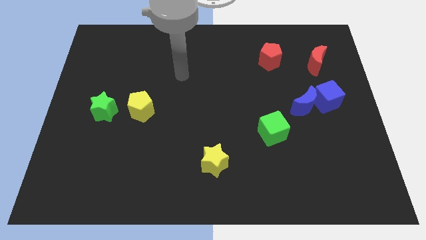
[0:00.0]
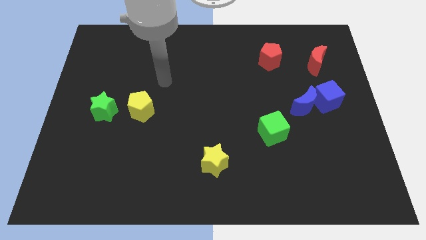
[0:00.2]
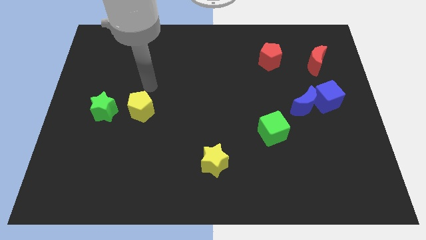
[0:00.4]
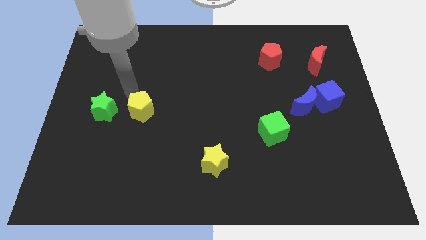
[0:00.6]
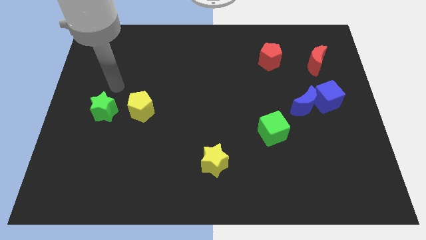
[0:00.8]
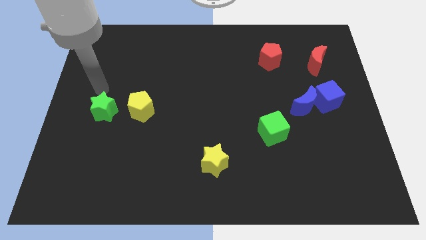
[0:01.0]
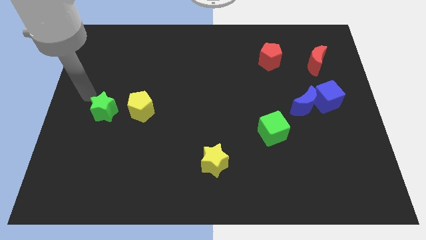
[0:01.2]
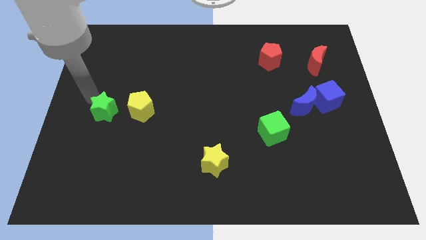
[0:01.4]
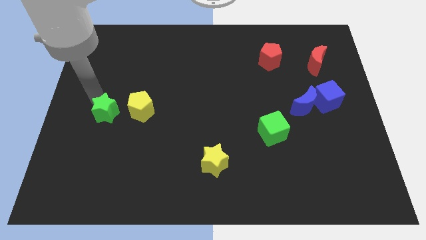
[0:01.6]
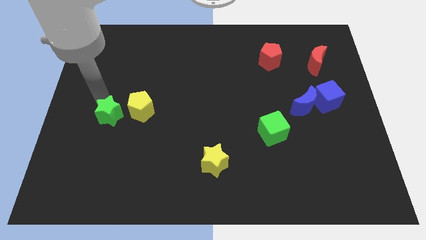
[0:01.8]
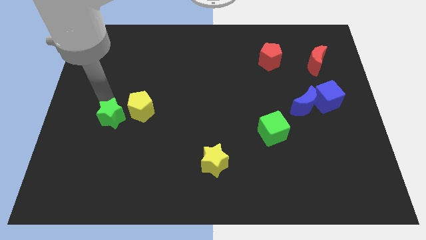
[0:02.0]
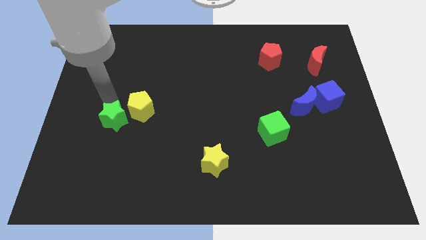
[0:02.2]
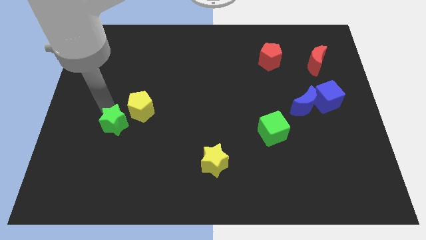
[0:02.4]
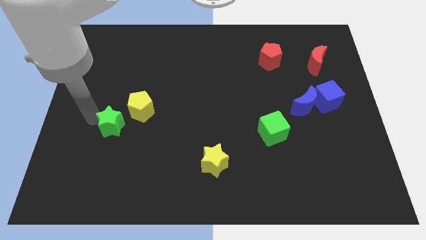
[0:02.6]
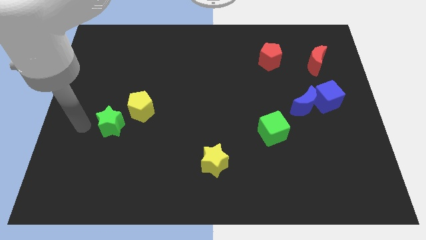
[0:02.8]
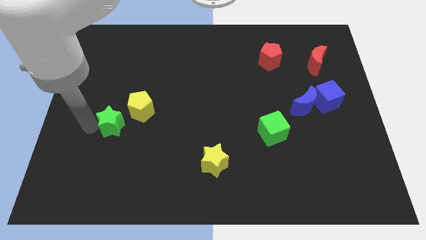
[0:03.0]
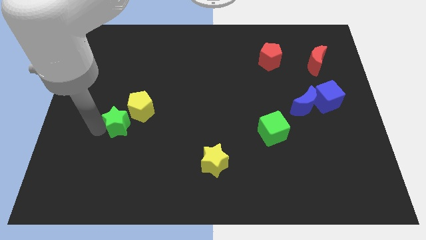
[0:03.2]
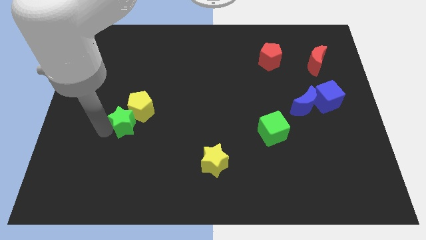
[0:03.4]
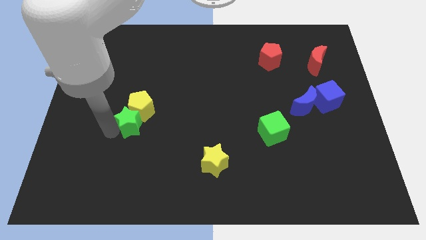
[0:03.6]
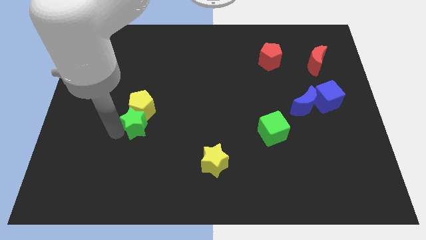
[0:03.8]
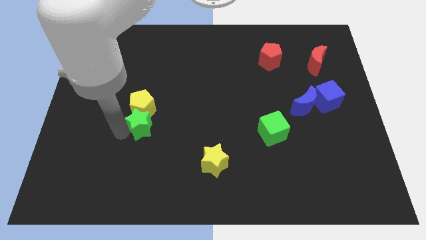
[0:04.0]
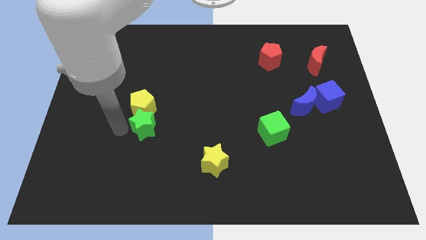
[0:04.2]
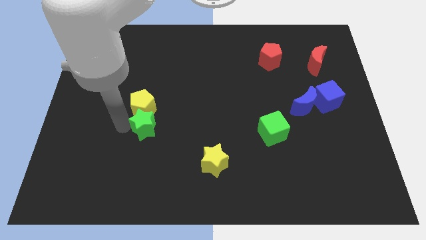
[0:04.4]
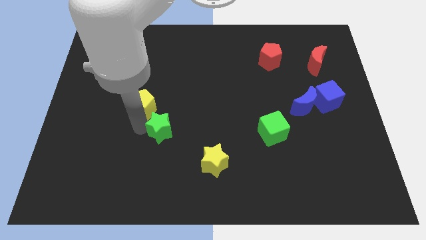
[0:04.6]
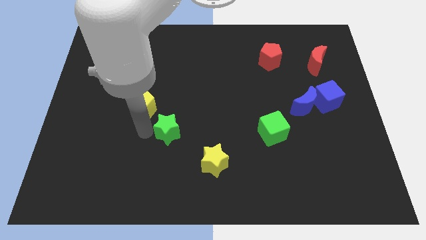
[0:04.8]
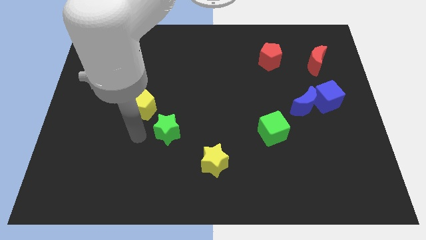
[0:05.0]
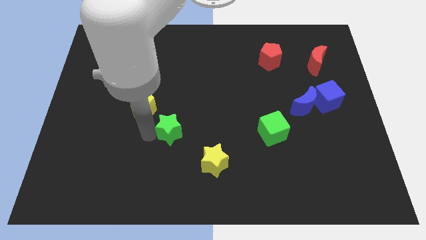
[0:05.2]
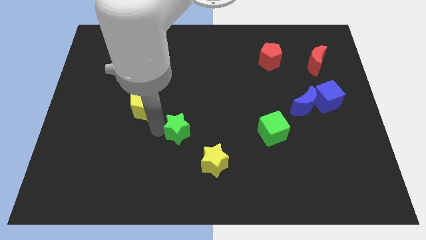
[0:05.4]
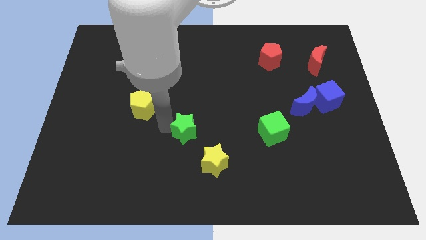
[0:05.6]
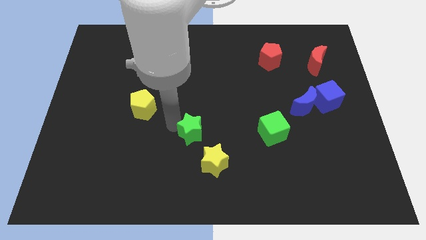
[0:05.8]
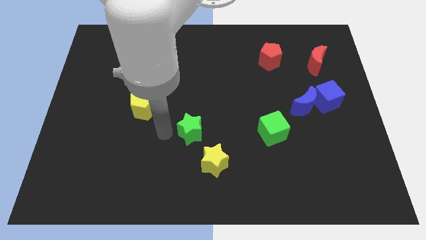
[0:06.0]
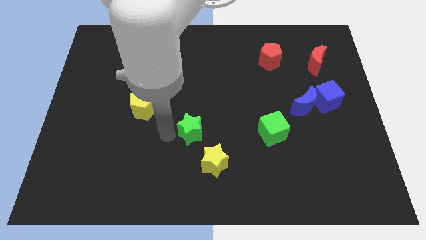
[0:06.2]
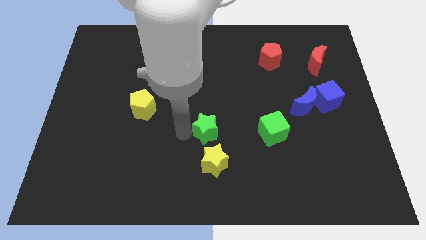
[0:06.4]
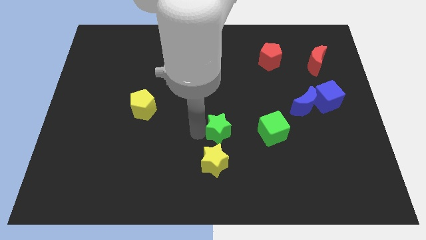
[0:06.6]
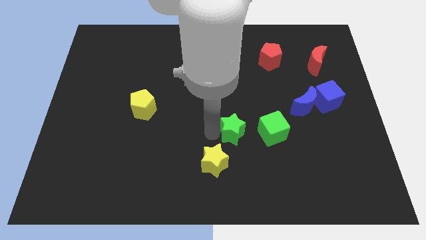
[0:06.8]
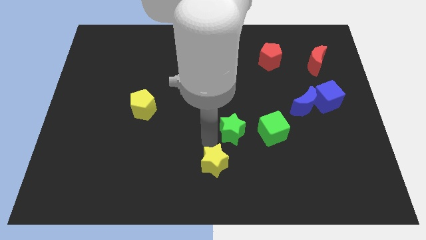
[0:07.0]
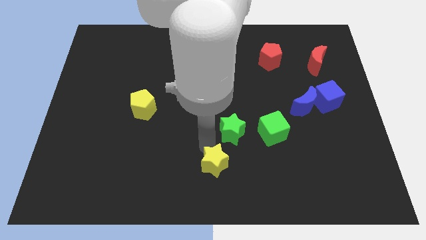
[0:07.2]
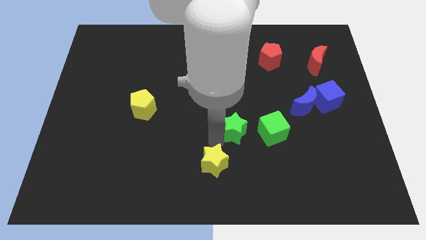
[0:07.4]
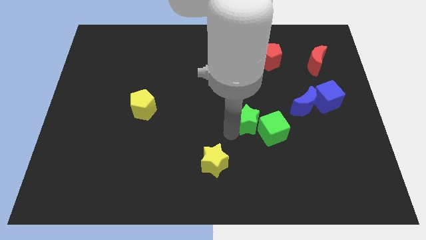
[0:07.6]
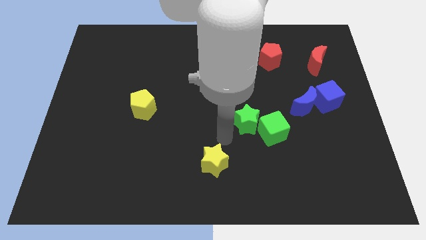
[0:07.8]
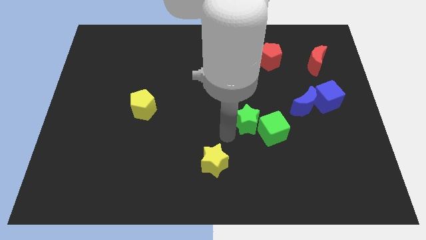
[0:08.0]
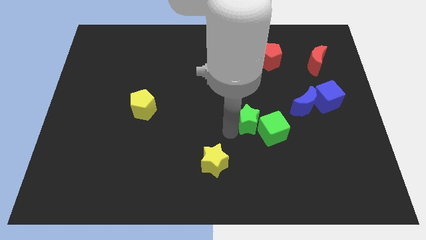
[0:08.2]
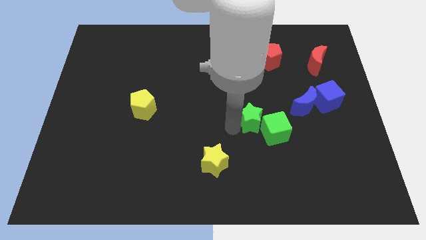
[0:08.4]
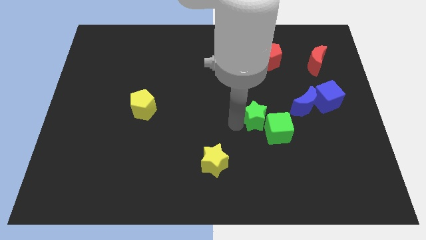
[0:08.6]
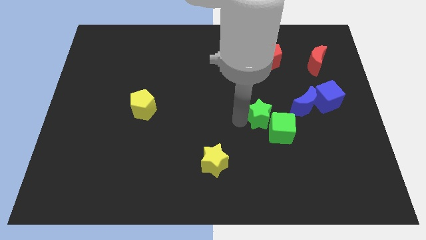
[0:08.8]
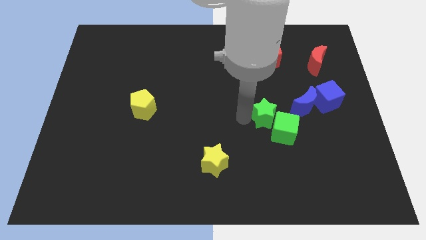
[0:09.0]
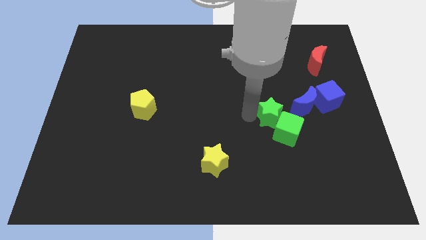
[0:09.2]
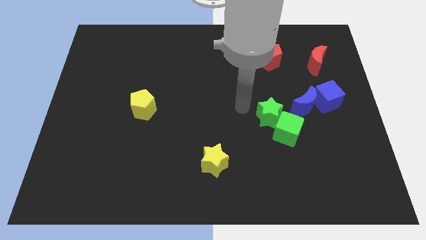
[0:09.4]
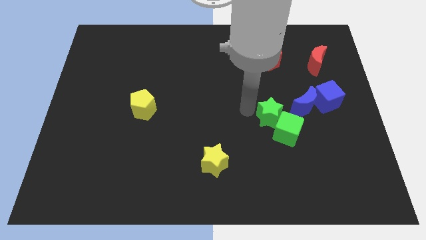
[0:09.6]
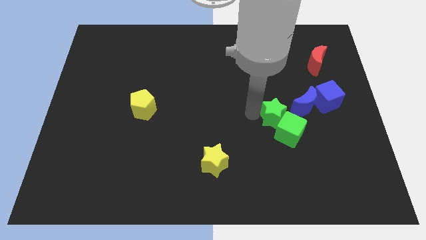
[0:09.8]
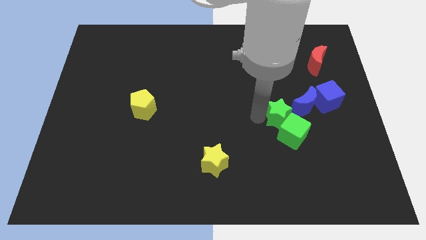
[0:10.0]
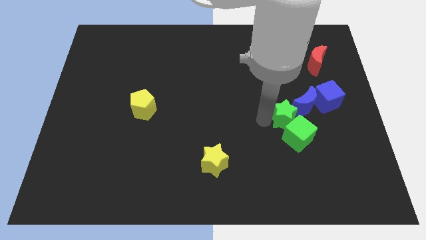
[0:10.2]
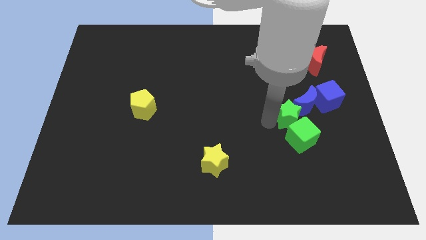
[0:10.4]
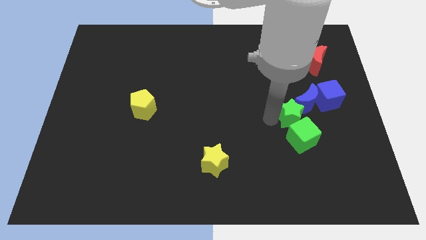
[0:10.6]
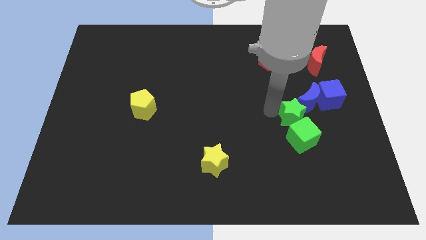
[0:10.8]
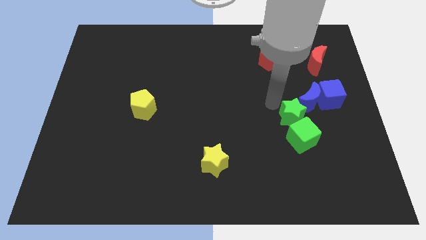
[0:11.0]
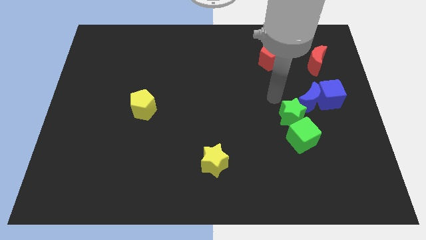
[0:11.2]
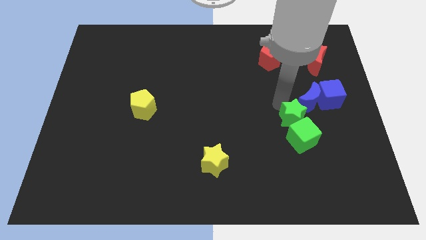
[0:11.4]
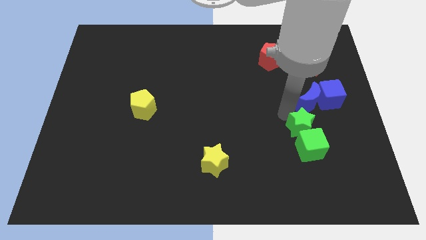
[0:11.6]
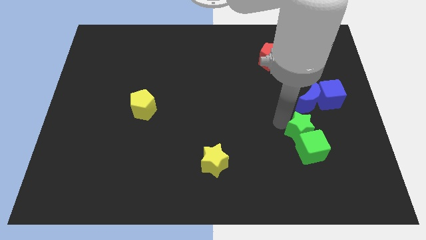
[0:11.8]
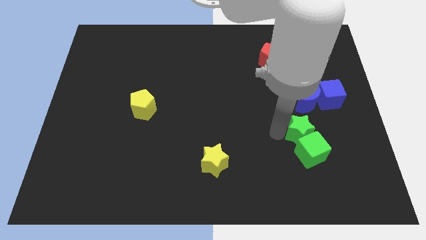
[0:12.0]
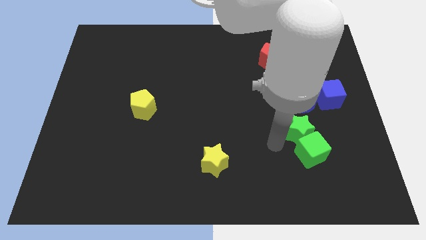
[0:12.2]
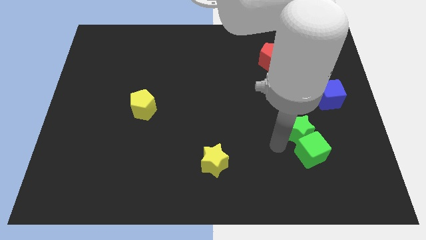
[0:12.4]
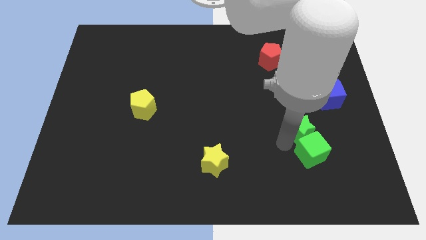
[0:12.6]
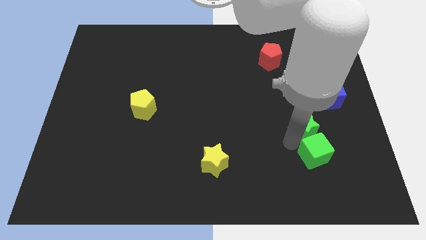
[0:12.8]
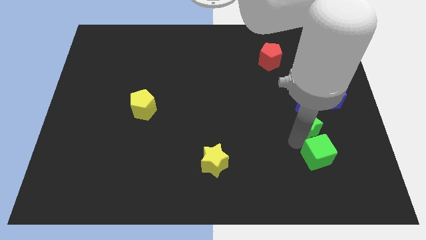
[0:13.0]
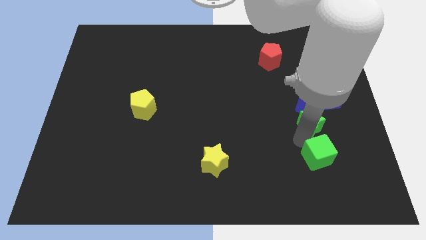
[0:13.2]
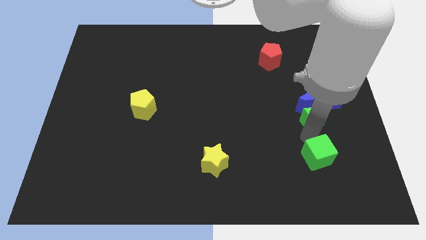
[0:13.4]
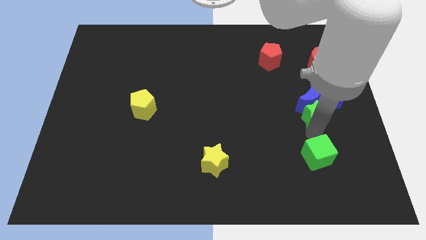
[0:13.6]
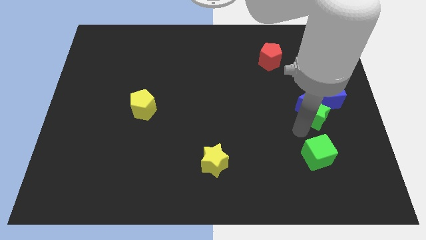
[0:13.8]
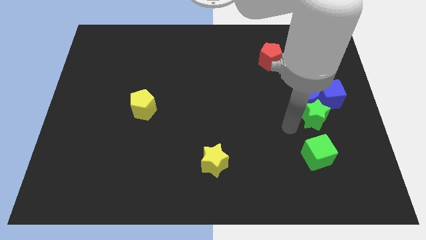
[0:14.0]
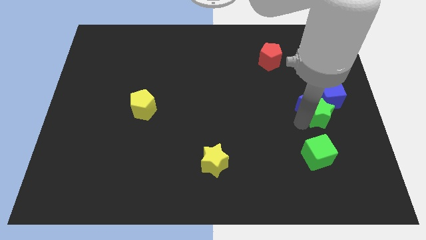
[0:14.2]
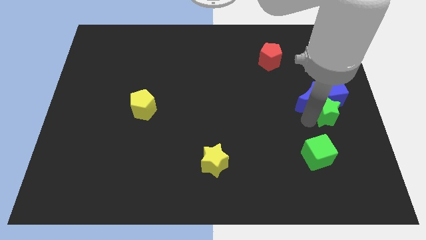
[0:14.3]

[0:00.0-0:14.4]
slide the green star to the center right
